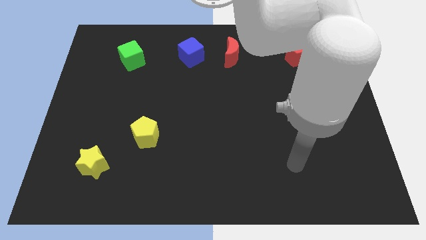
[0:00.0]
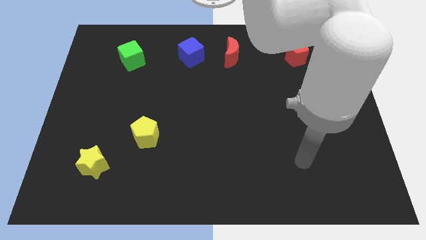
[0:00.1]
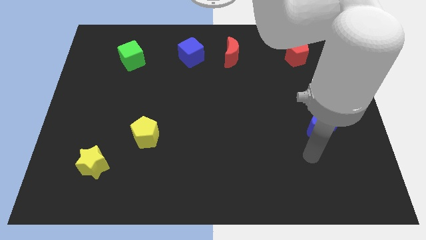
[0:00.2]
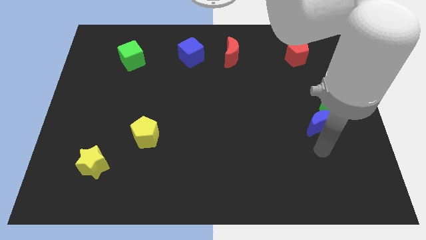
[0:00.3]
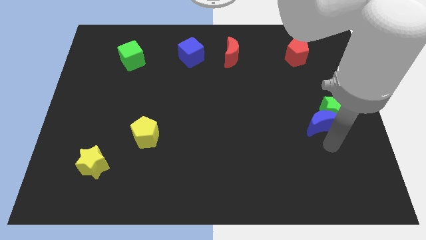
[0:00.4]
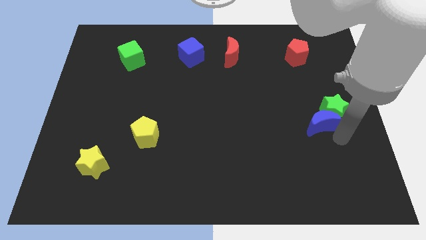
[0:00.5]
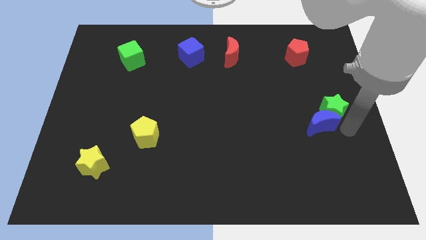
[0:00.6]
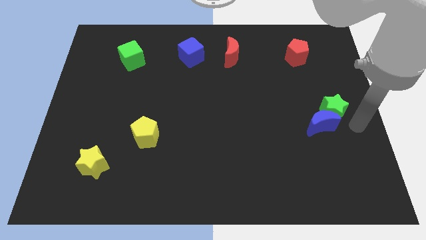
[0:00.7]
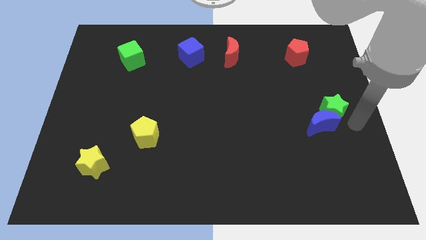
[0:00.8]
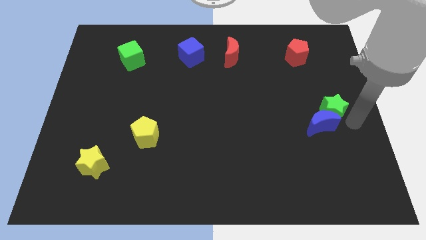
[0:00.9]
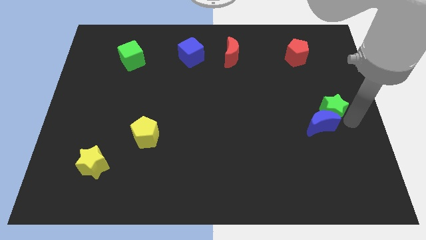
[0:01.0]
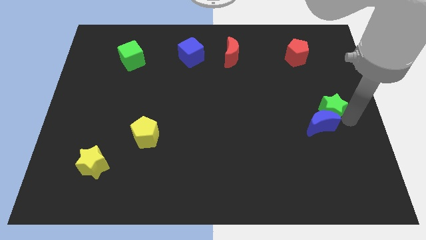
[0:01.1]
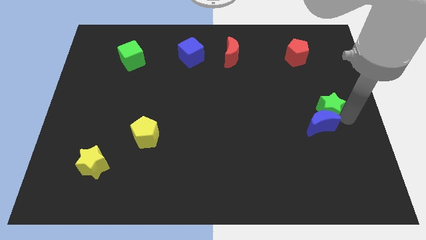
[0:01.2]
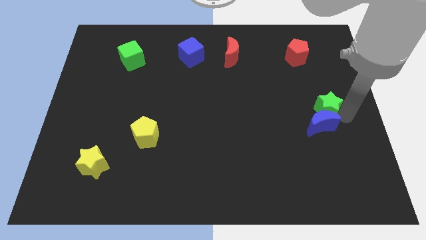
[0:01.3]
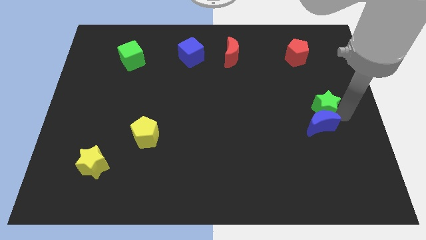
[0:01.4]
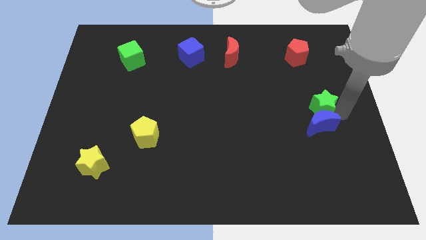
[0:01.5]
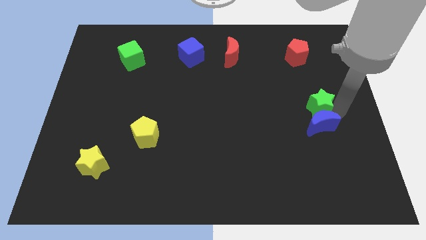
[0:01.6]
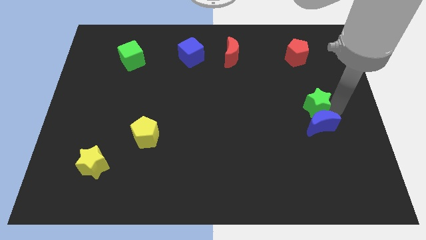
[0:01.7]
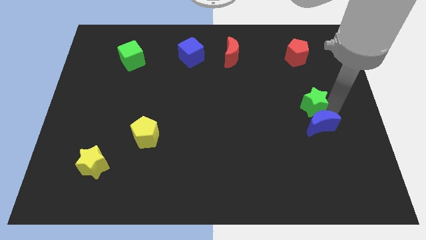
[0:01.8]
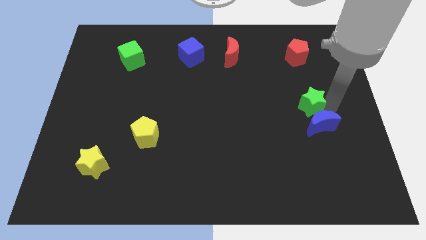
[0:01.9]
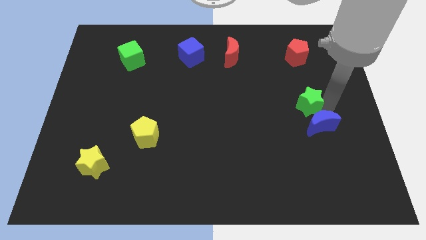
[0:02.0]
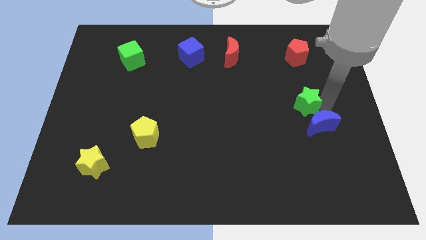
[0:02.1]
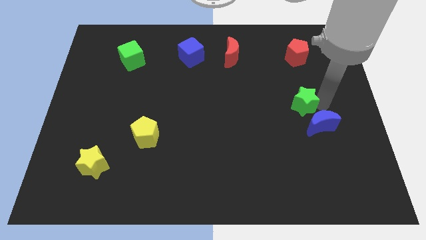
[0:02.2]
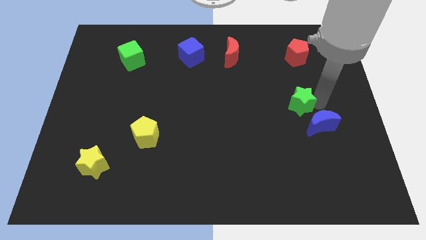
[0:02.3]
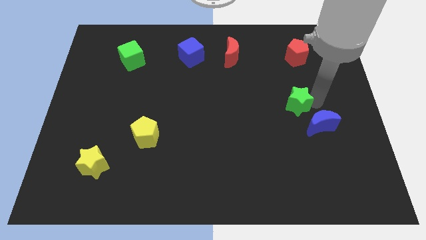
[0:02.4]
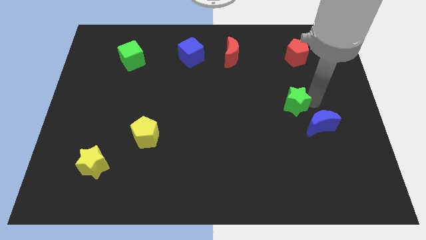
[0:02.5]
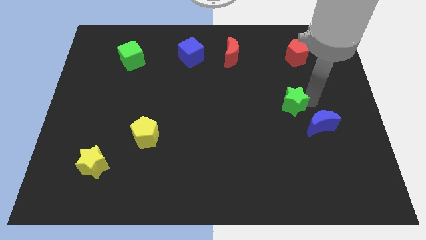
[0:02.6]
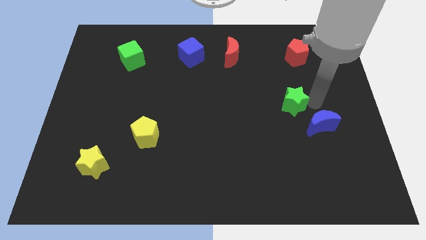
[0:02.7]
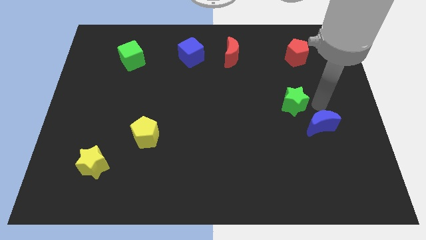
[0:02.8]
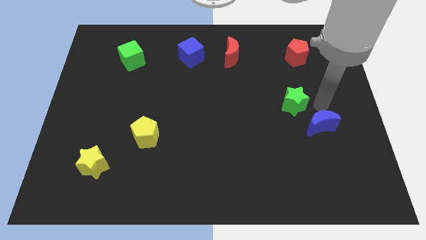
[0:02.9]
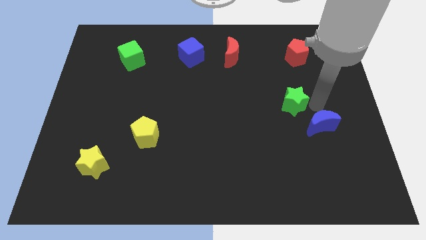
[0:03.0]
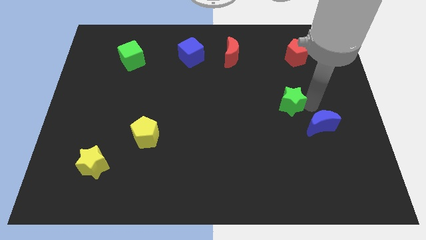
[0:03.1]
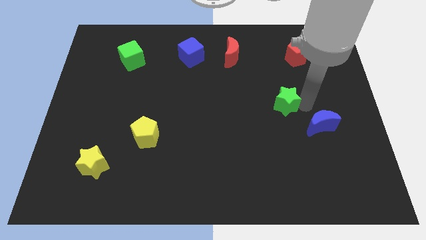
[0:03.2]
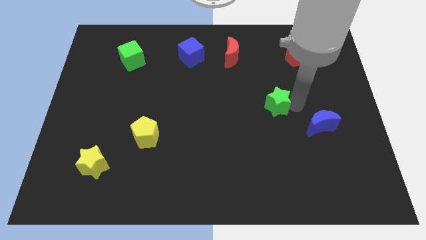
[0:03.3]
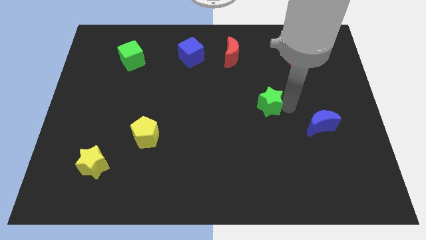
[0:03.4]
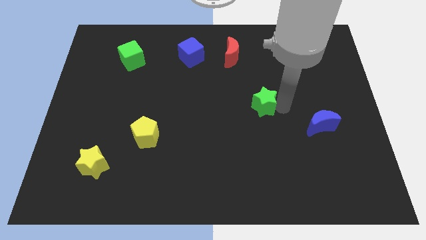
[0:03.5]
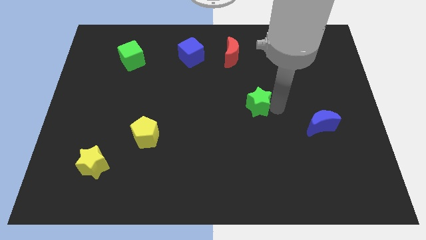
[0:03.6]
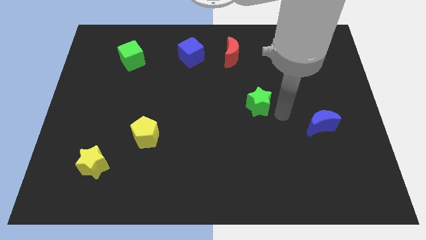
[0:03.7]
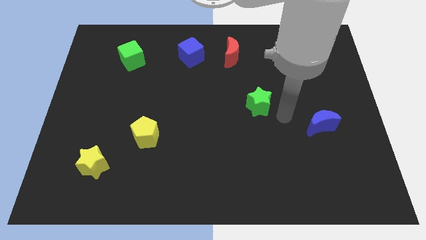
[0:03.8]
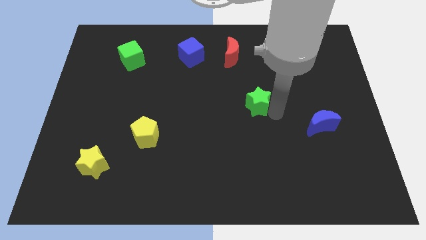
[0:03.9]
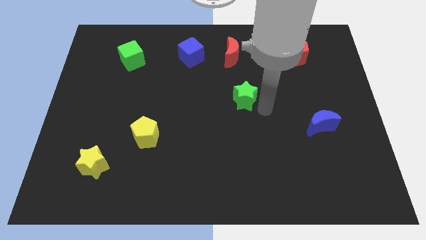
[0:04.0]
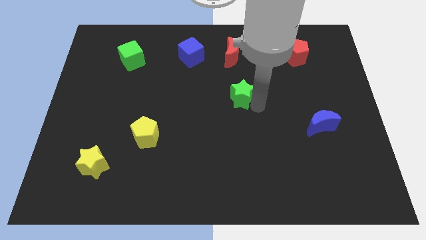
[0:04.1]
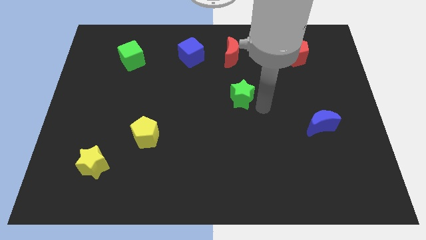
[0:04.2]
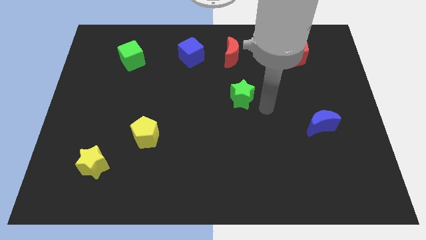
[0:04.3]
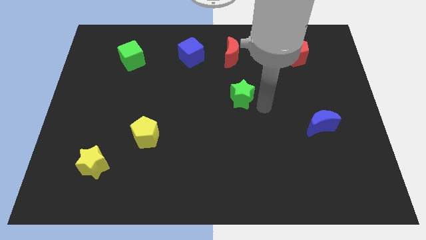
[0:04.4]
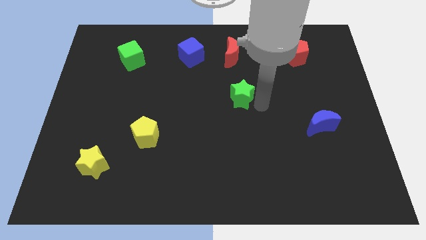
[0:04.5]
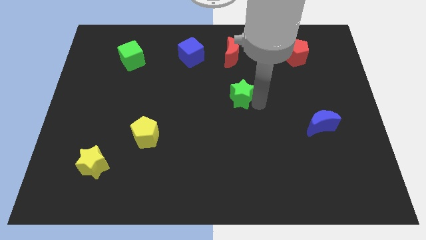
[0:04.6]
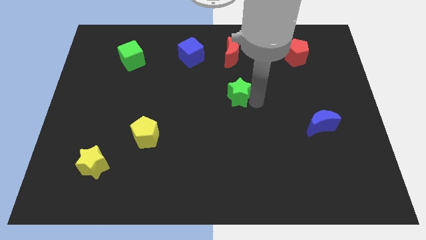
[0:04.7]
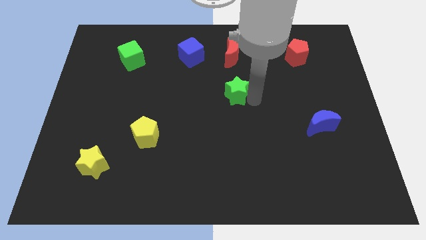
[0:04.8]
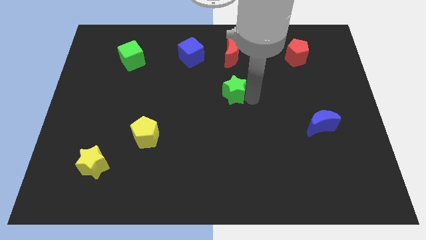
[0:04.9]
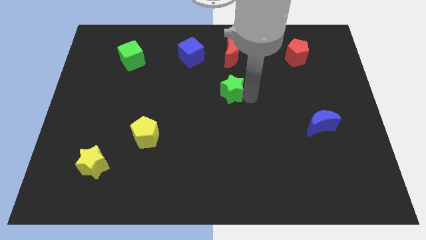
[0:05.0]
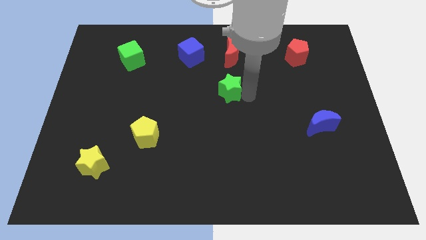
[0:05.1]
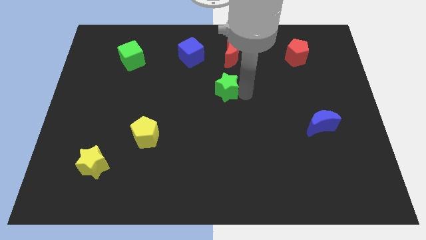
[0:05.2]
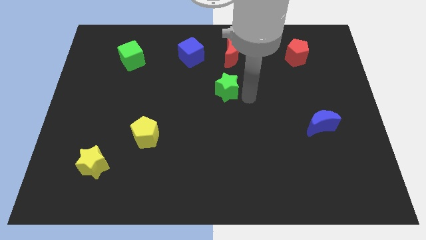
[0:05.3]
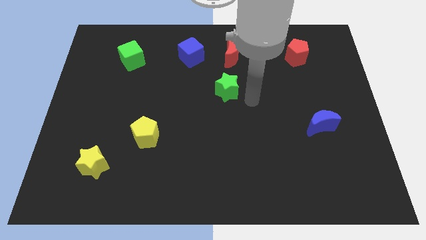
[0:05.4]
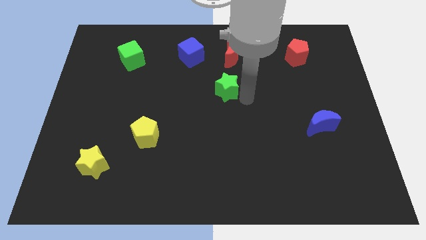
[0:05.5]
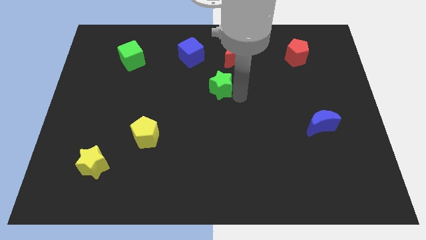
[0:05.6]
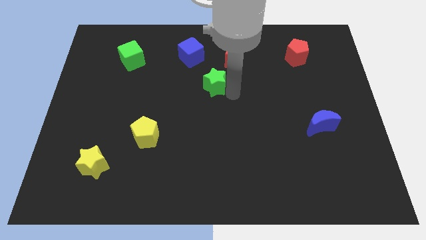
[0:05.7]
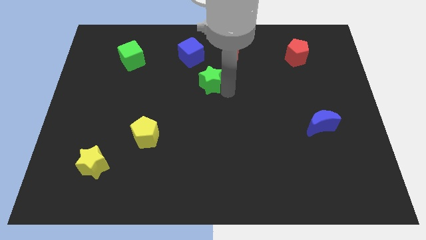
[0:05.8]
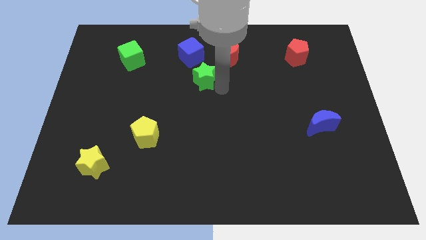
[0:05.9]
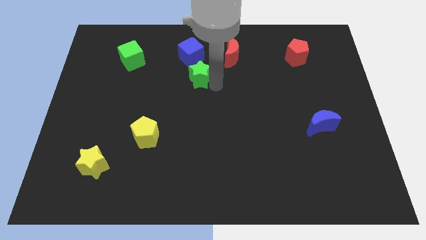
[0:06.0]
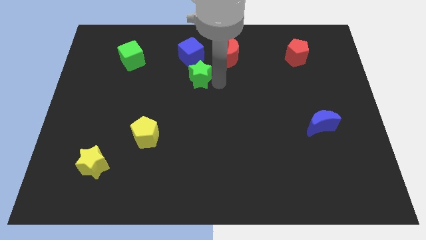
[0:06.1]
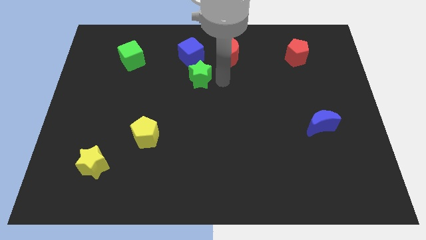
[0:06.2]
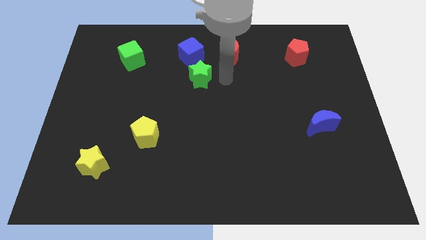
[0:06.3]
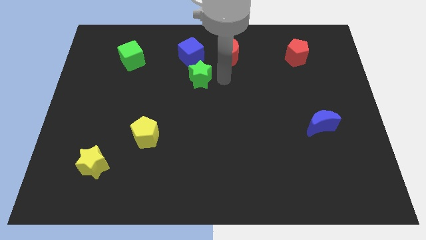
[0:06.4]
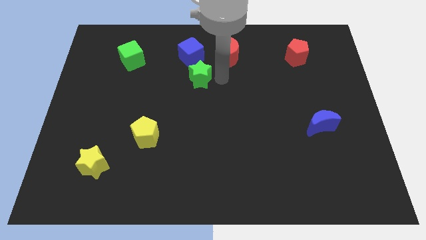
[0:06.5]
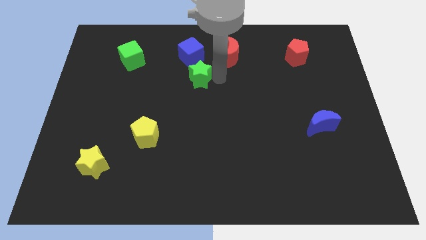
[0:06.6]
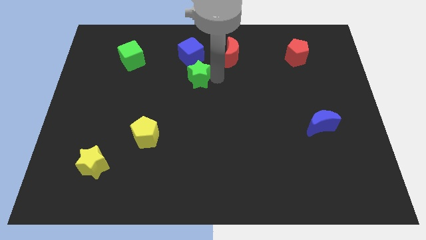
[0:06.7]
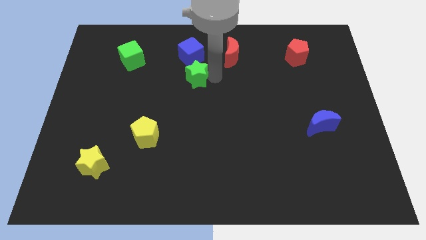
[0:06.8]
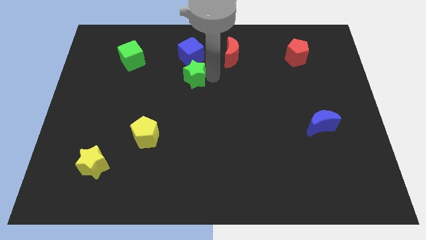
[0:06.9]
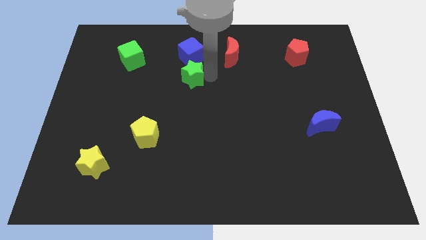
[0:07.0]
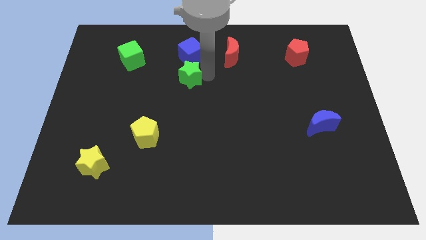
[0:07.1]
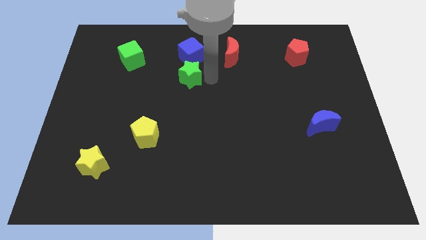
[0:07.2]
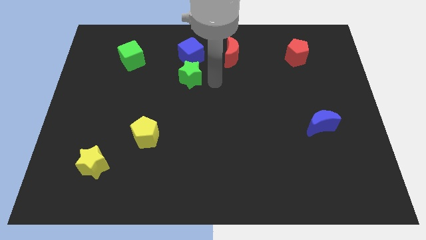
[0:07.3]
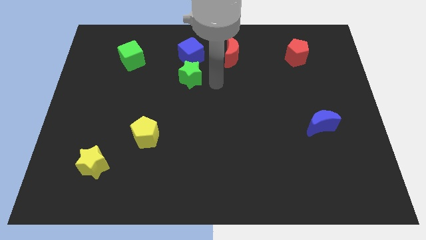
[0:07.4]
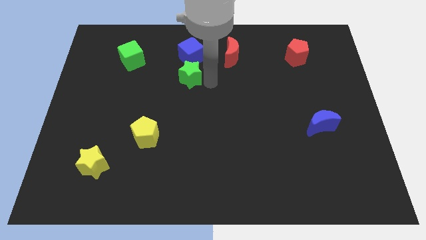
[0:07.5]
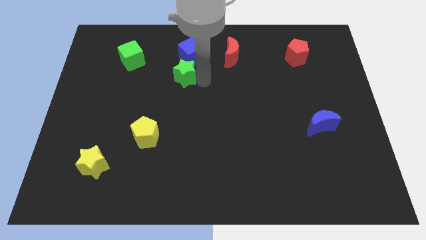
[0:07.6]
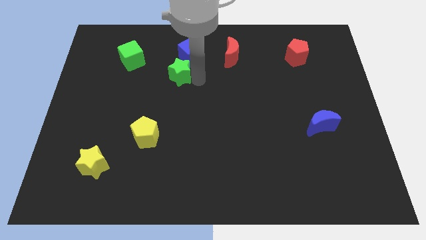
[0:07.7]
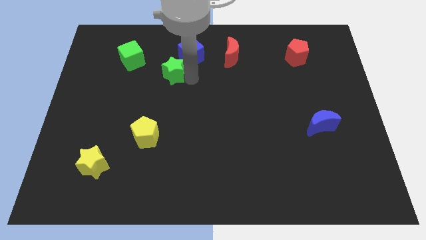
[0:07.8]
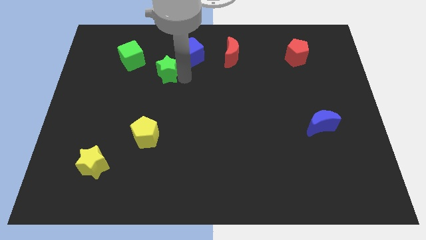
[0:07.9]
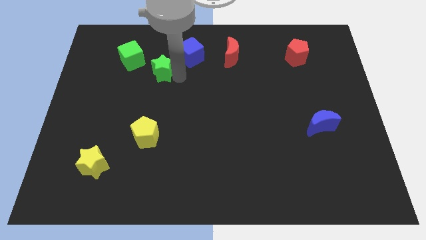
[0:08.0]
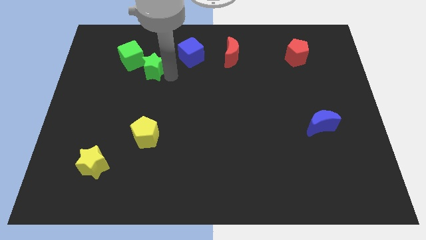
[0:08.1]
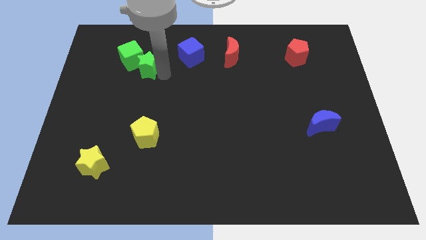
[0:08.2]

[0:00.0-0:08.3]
put the green star to the green cube
